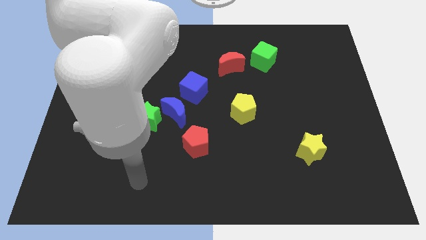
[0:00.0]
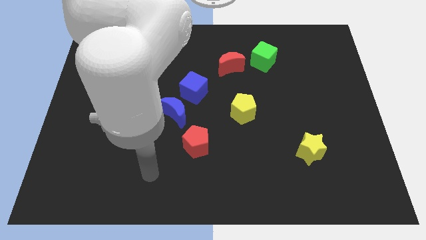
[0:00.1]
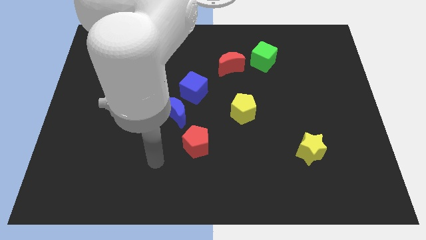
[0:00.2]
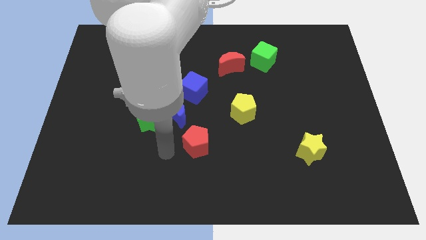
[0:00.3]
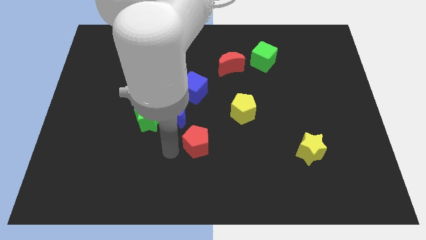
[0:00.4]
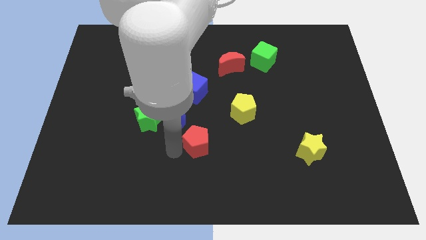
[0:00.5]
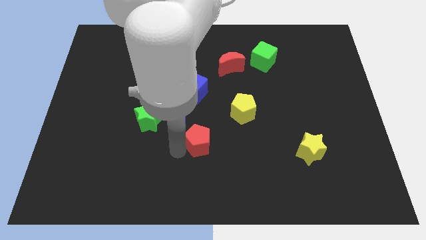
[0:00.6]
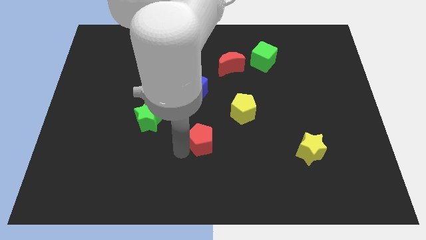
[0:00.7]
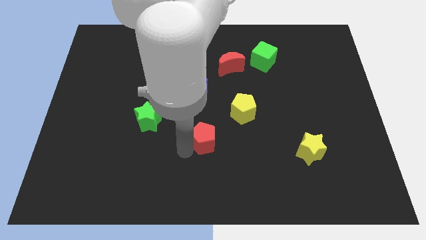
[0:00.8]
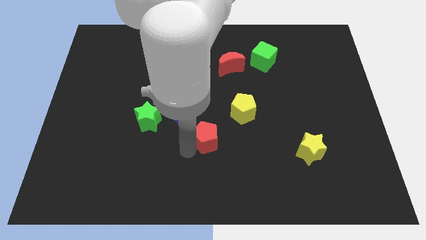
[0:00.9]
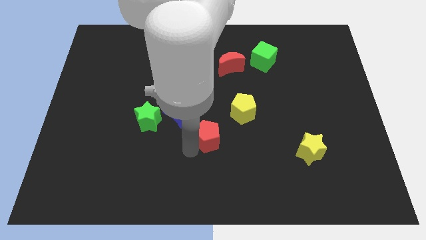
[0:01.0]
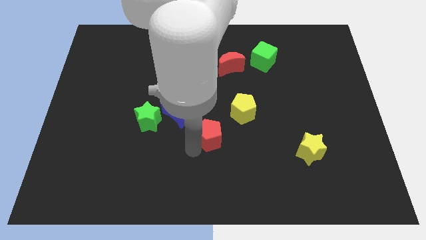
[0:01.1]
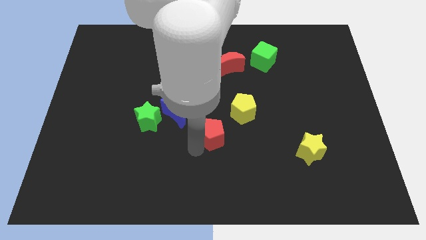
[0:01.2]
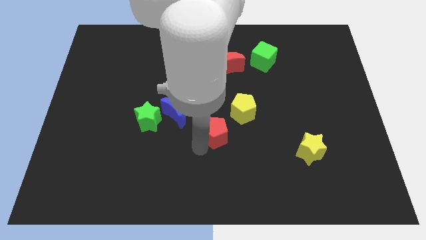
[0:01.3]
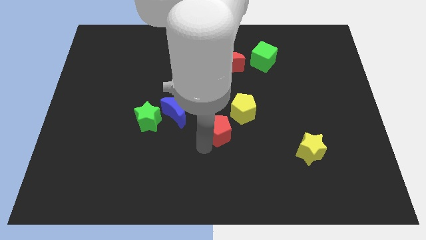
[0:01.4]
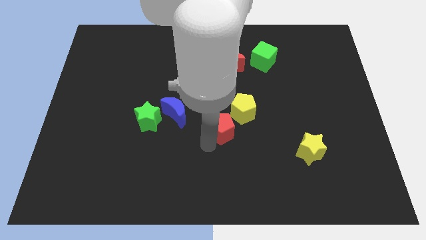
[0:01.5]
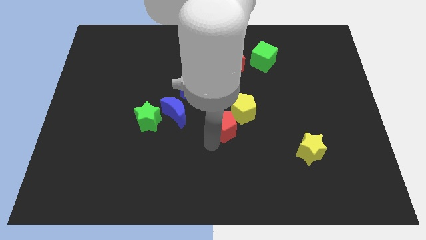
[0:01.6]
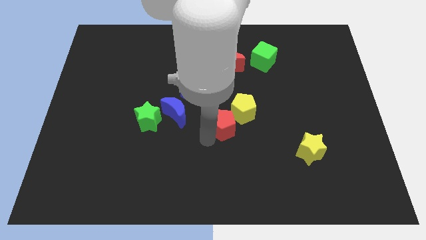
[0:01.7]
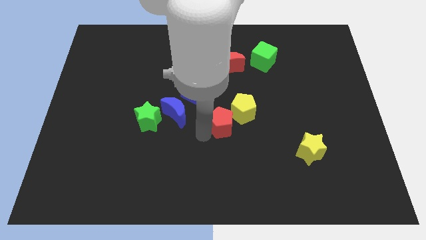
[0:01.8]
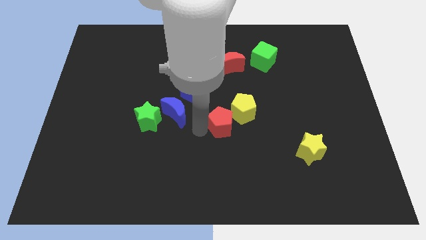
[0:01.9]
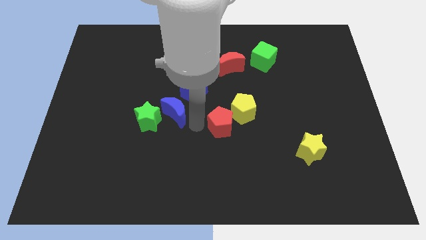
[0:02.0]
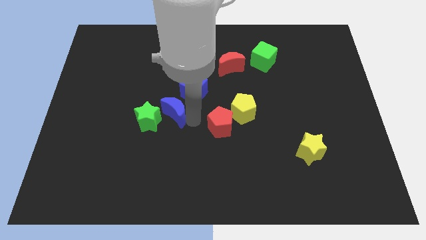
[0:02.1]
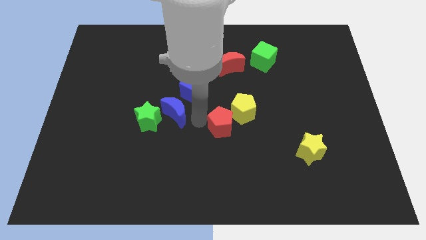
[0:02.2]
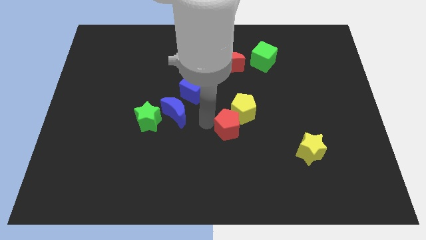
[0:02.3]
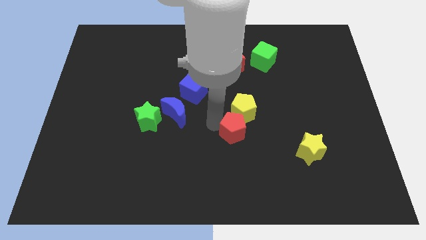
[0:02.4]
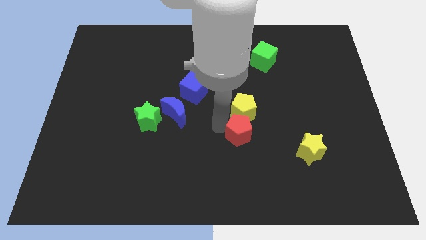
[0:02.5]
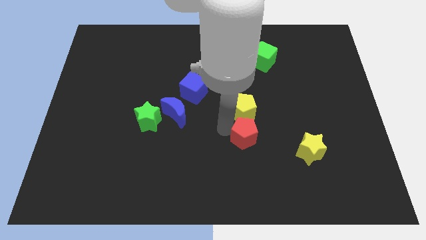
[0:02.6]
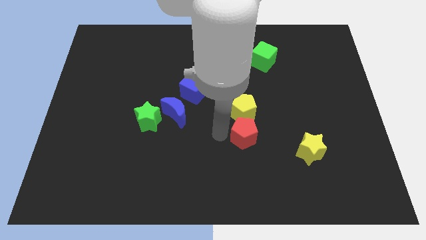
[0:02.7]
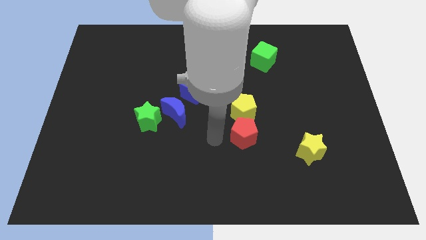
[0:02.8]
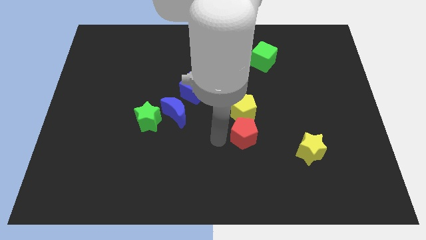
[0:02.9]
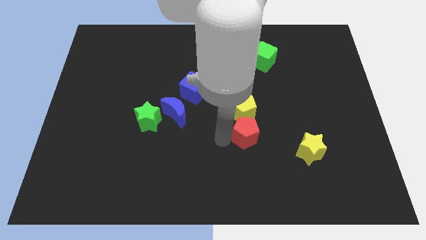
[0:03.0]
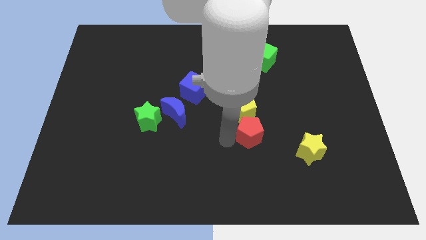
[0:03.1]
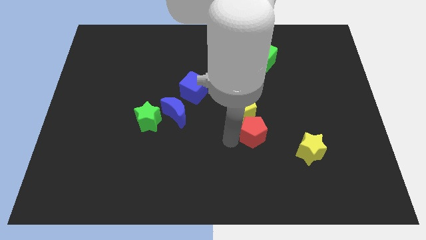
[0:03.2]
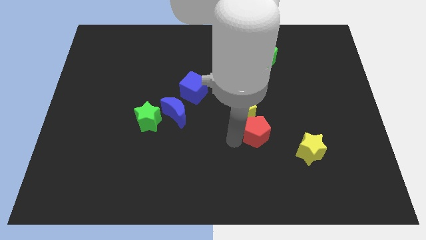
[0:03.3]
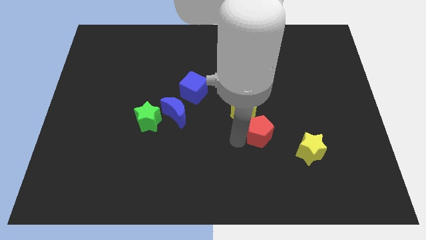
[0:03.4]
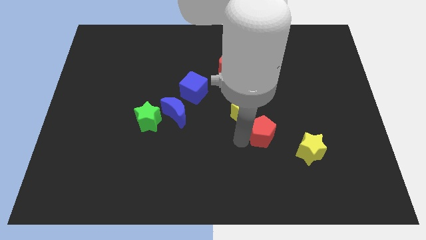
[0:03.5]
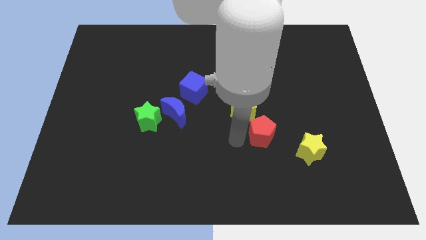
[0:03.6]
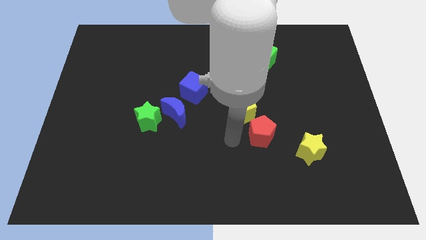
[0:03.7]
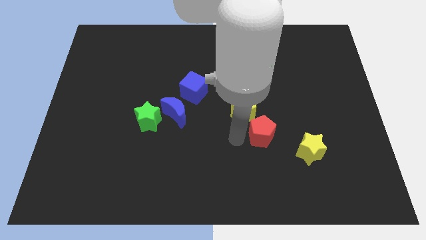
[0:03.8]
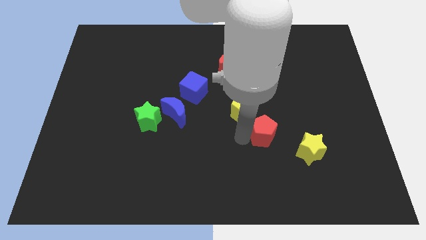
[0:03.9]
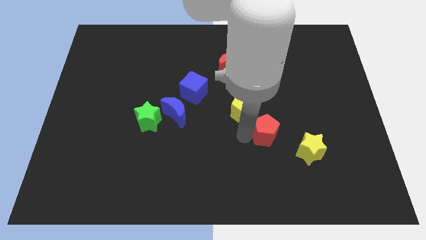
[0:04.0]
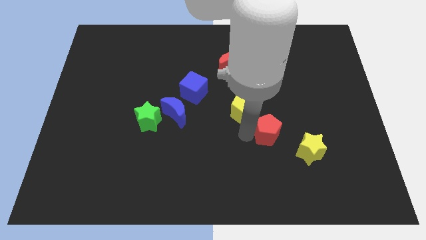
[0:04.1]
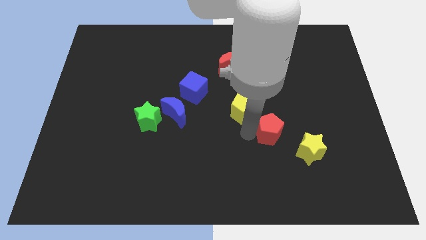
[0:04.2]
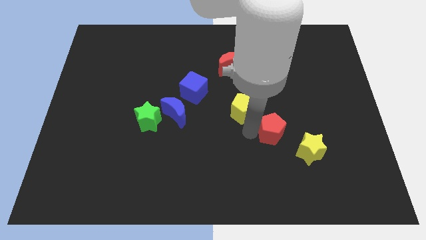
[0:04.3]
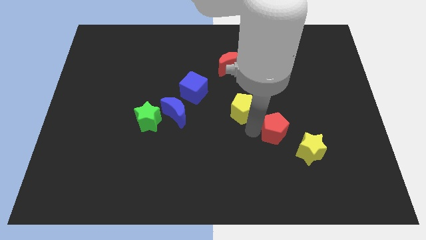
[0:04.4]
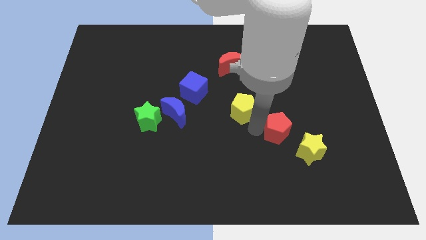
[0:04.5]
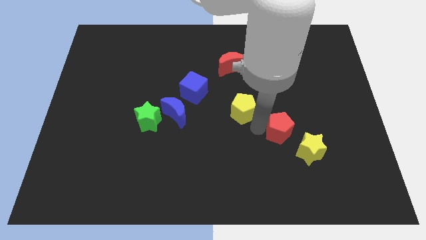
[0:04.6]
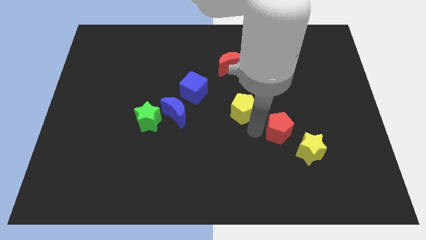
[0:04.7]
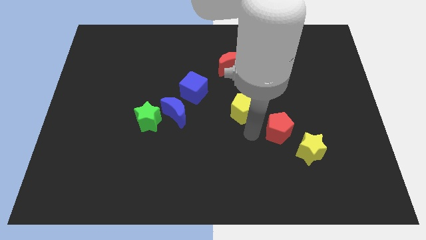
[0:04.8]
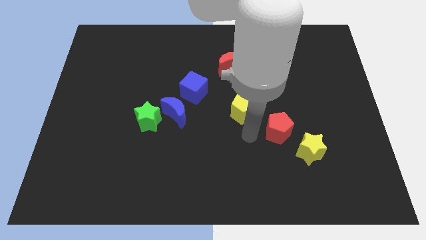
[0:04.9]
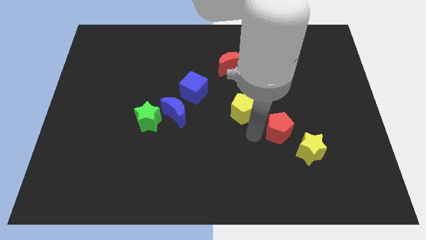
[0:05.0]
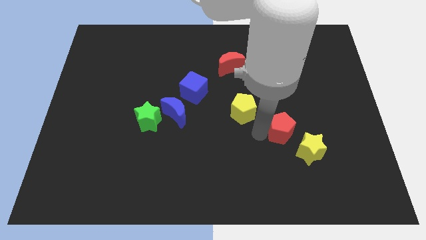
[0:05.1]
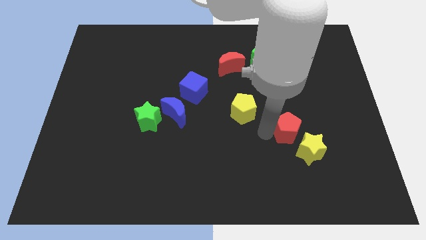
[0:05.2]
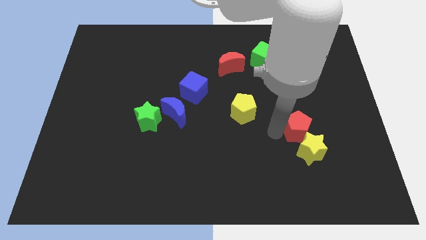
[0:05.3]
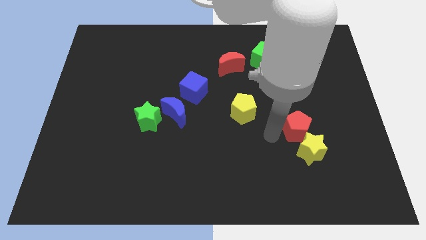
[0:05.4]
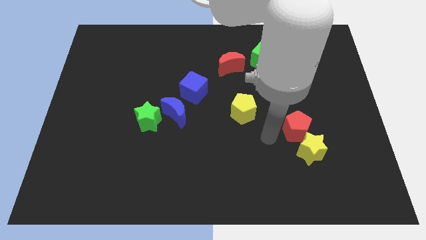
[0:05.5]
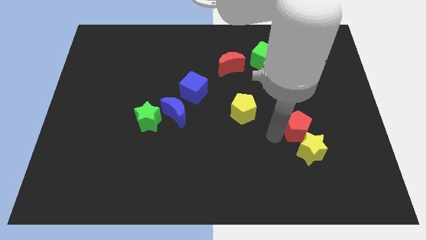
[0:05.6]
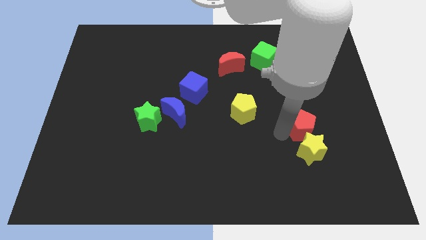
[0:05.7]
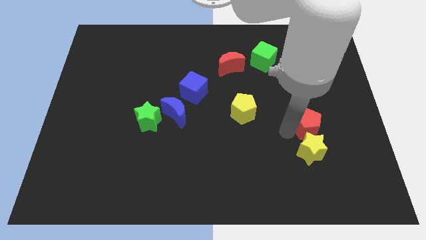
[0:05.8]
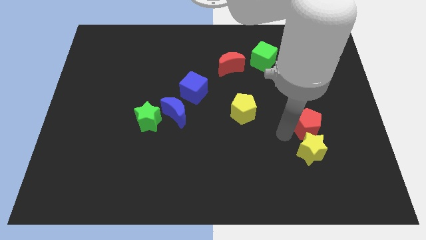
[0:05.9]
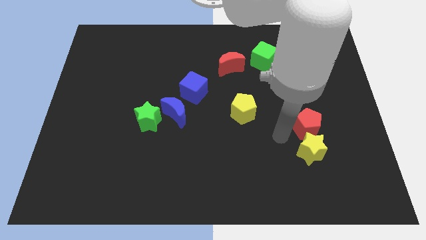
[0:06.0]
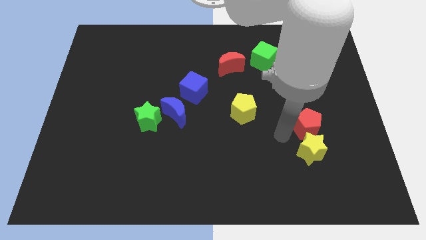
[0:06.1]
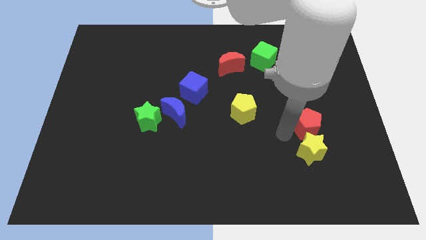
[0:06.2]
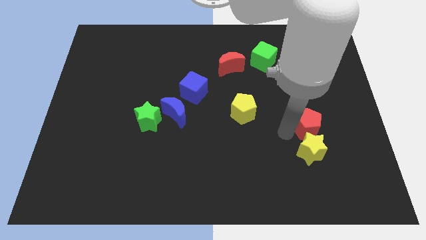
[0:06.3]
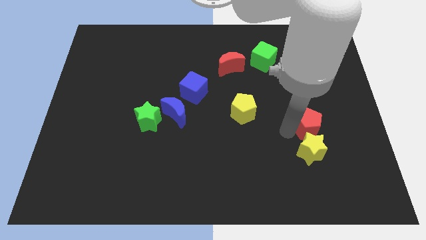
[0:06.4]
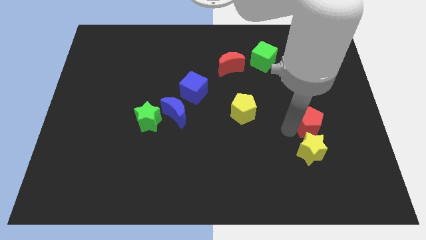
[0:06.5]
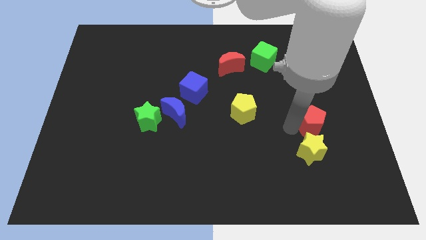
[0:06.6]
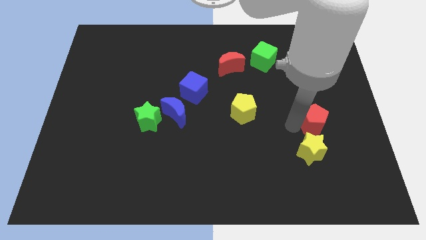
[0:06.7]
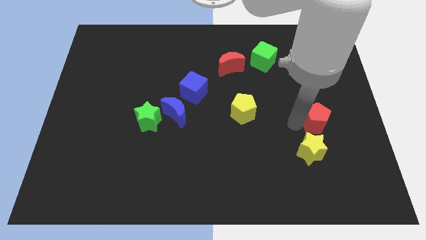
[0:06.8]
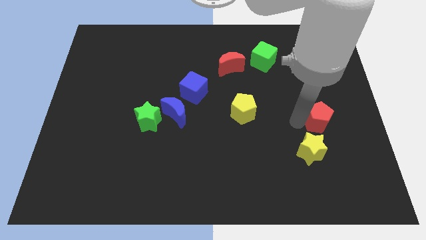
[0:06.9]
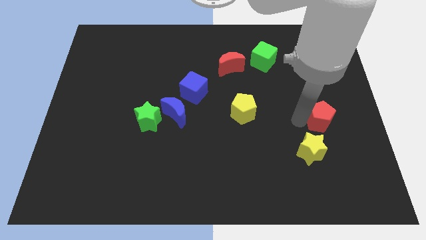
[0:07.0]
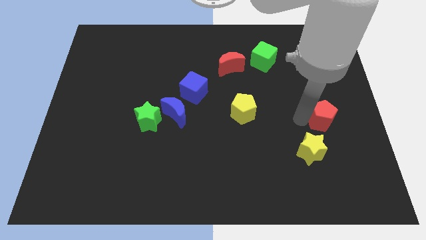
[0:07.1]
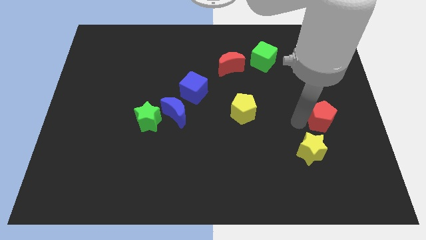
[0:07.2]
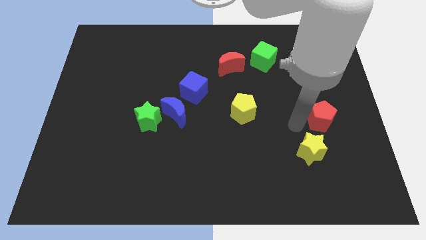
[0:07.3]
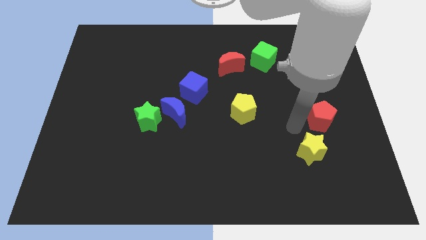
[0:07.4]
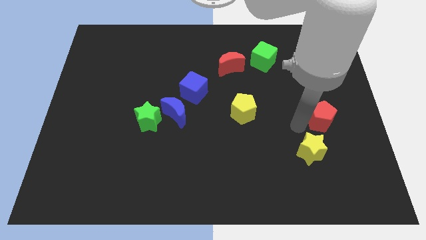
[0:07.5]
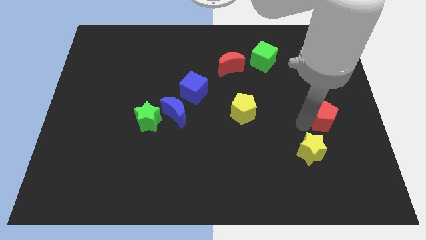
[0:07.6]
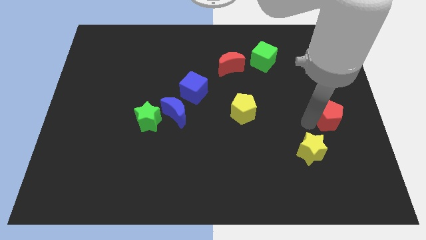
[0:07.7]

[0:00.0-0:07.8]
push the red pentagon to the center right
